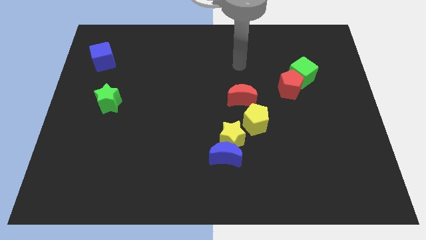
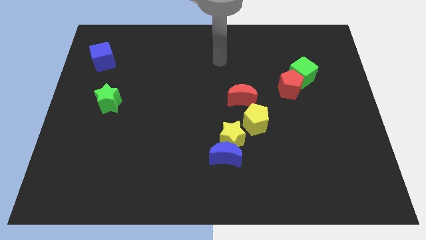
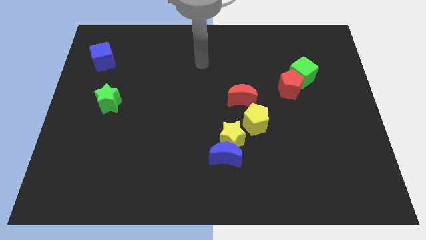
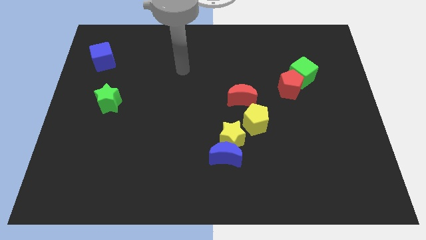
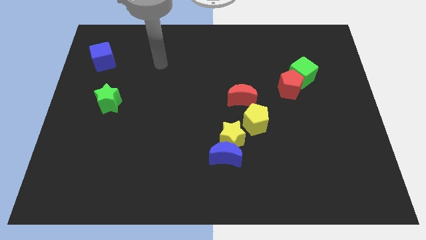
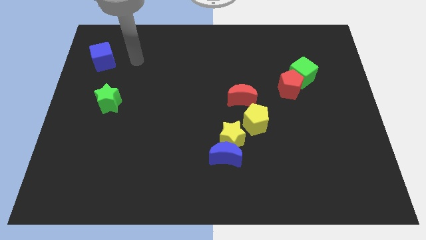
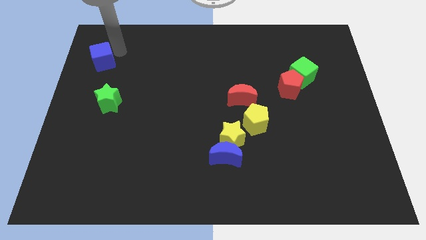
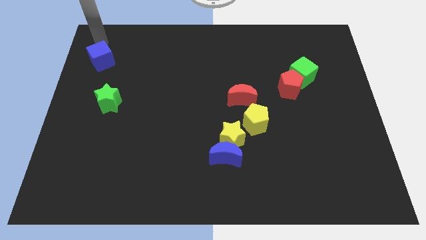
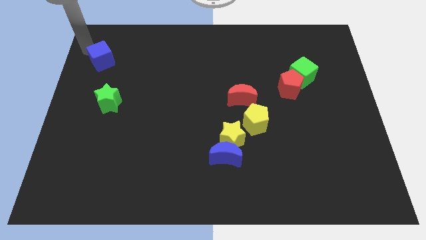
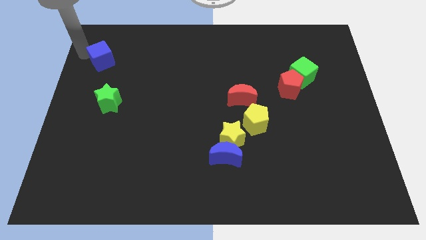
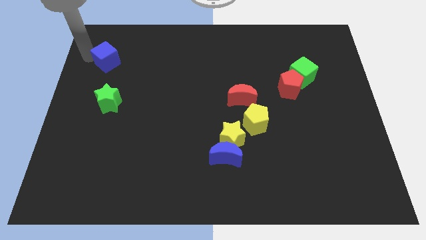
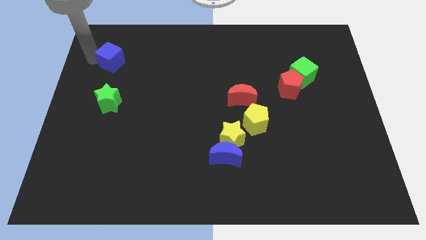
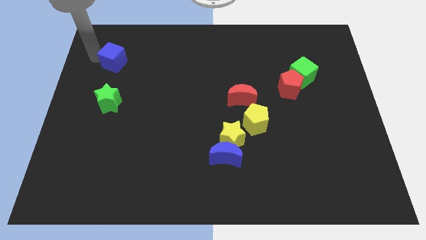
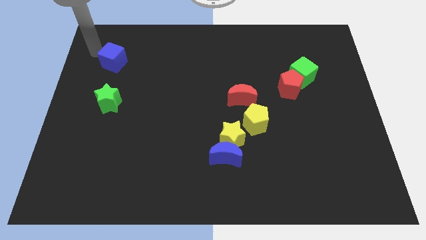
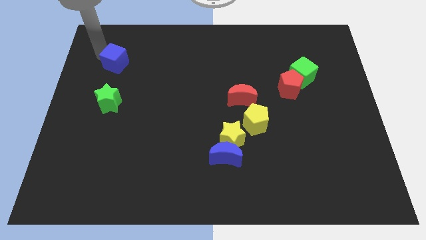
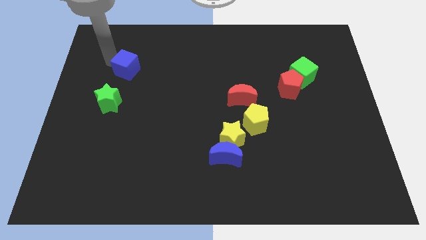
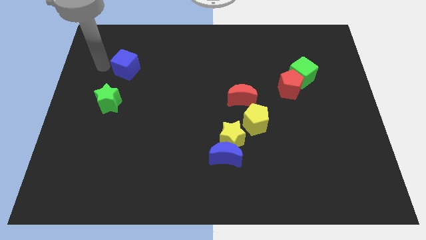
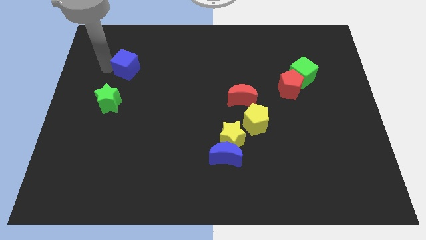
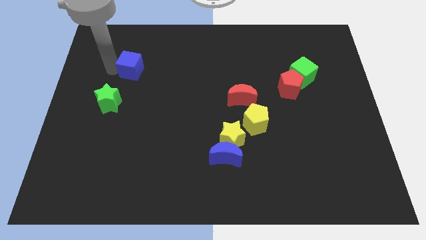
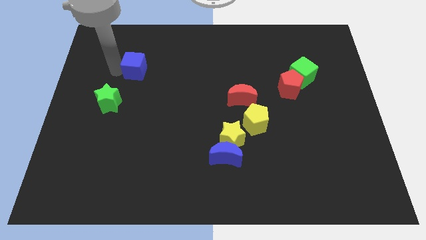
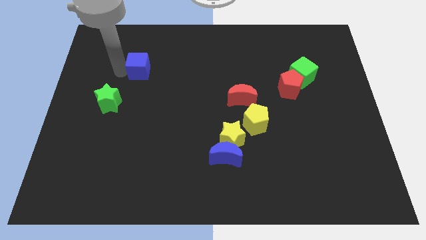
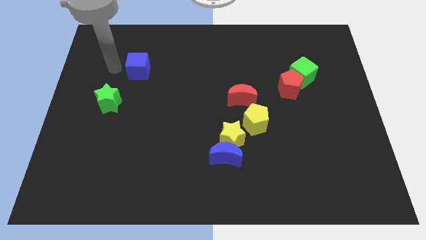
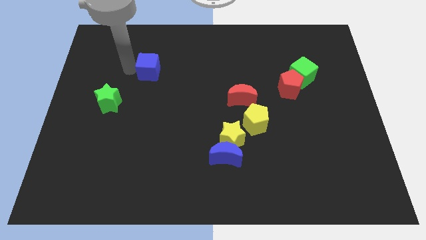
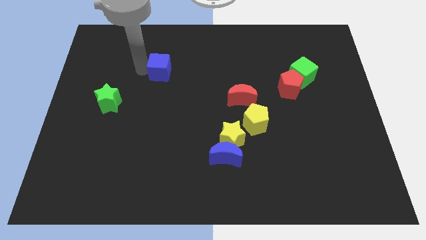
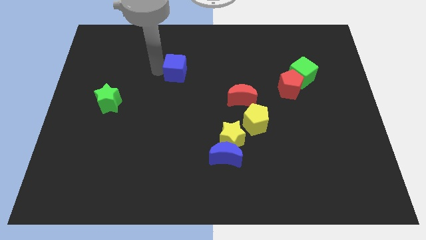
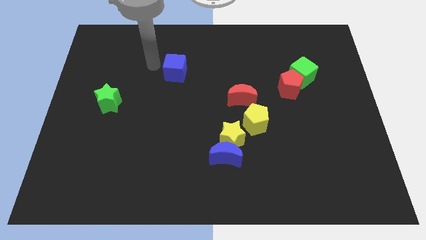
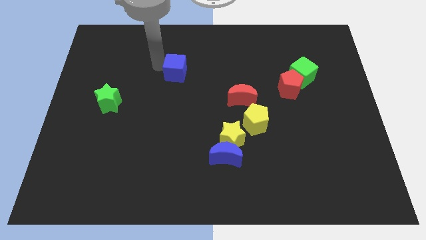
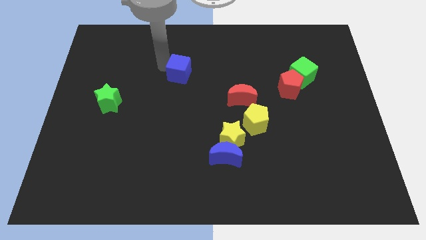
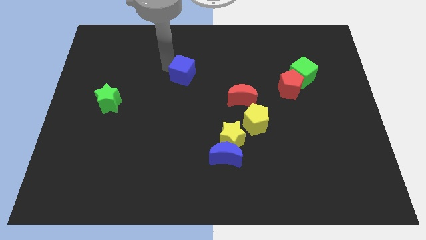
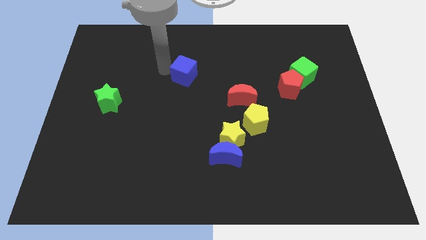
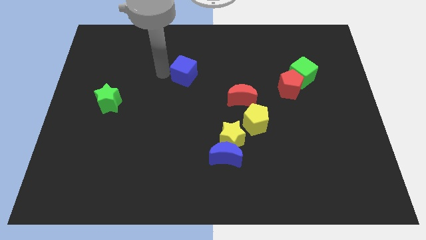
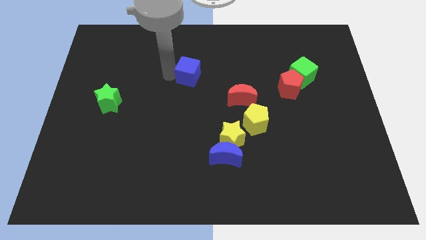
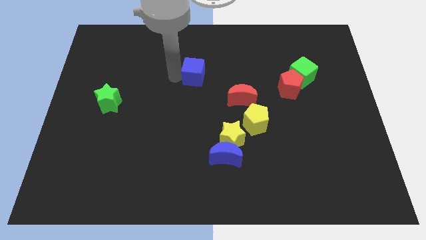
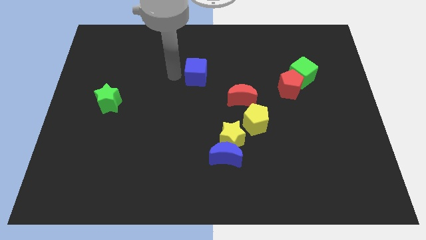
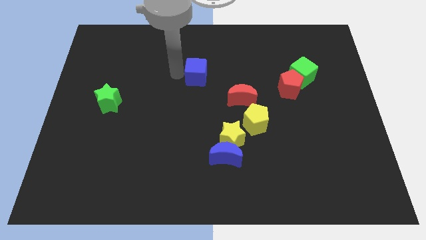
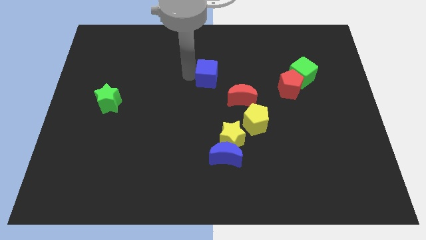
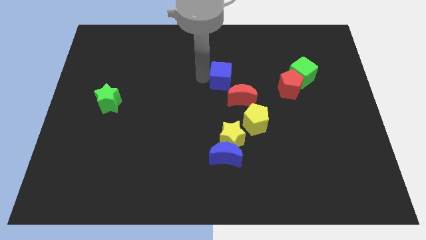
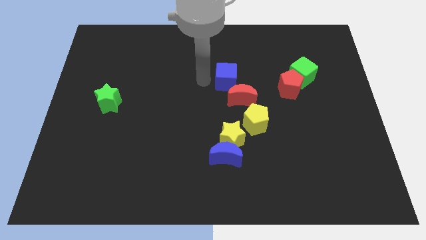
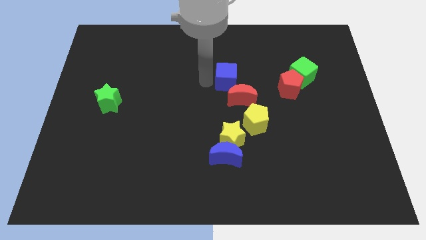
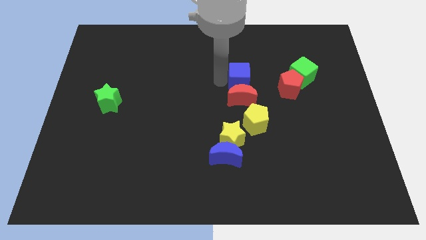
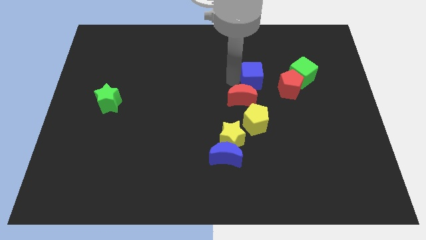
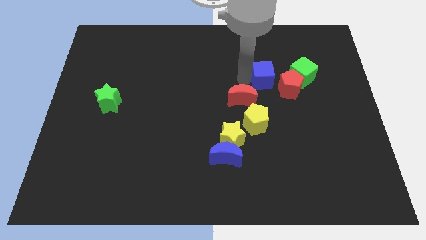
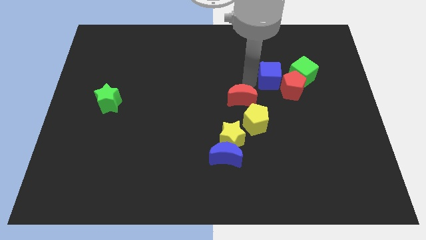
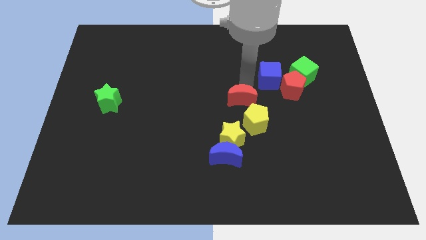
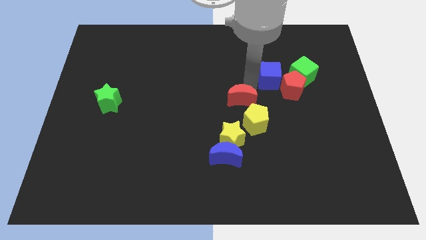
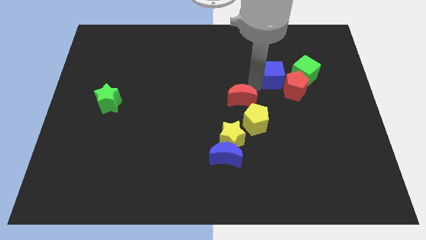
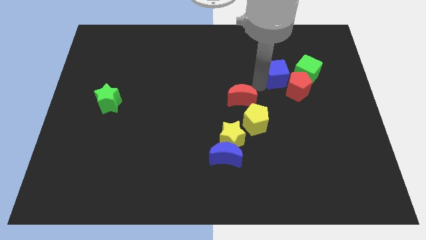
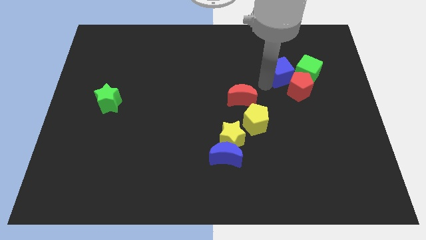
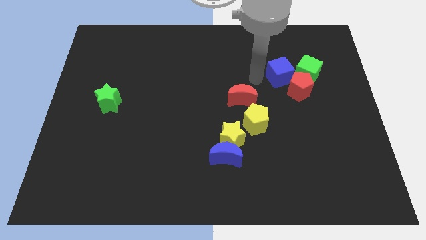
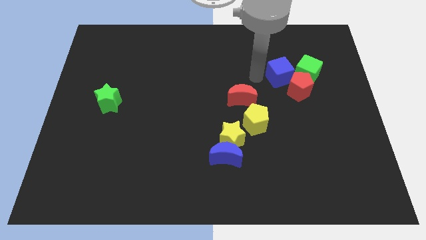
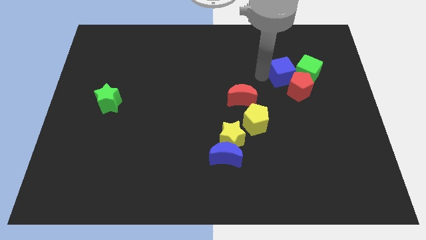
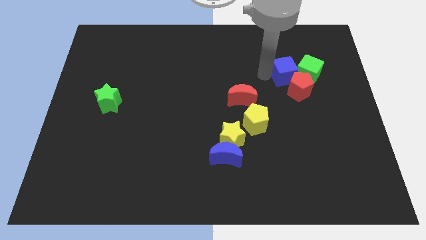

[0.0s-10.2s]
push the blue cube next to the green cube

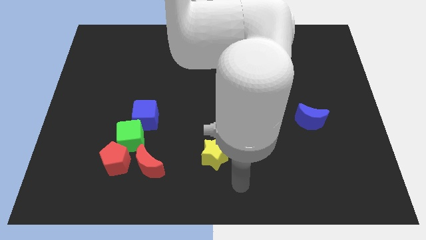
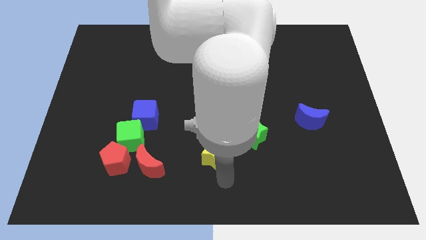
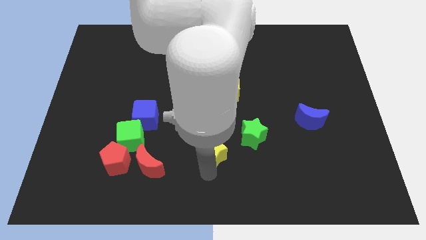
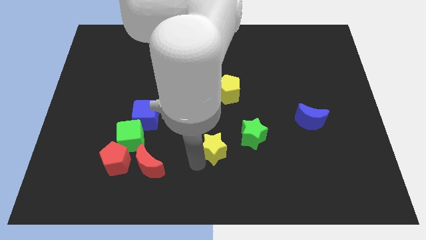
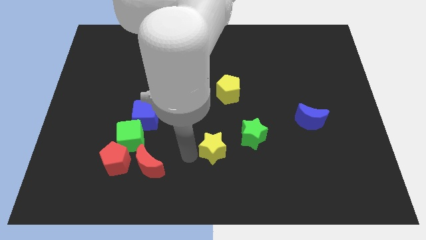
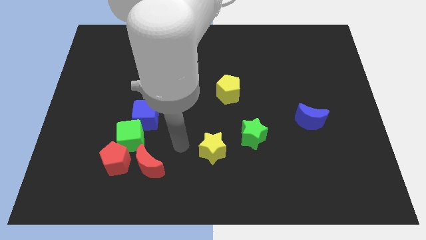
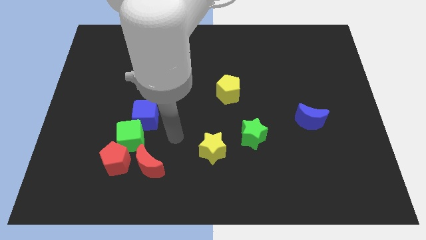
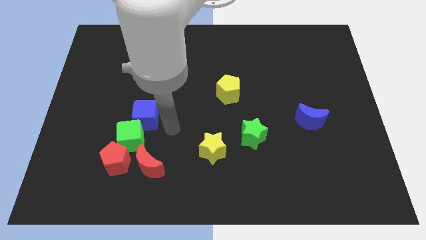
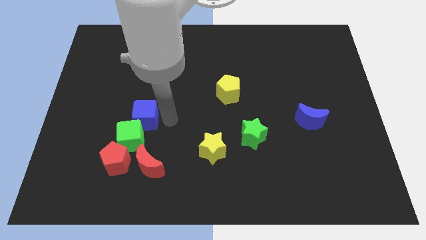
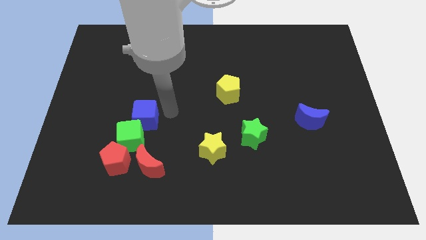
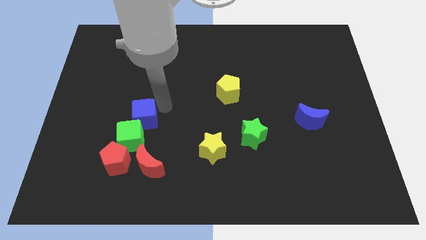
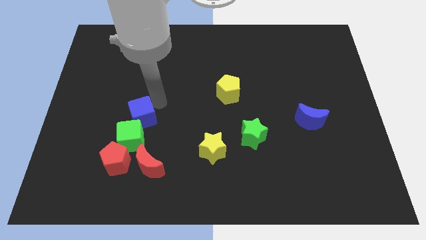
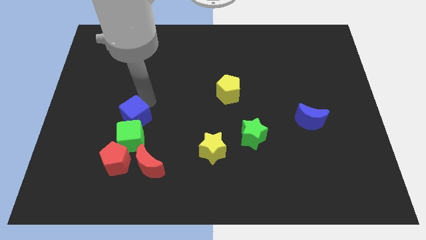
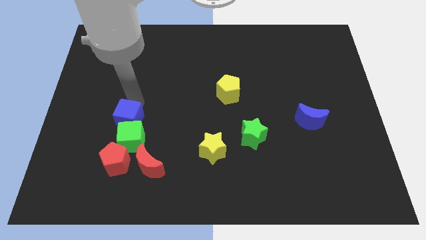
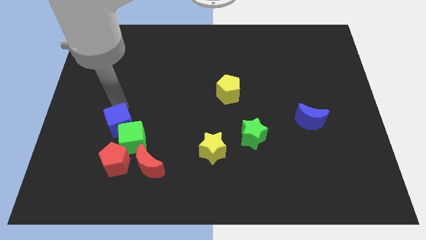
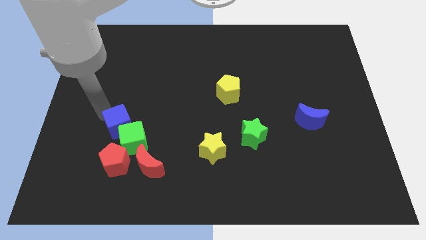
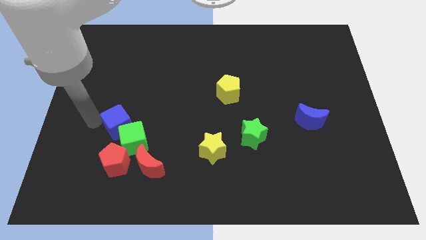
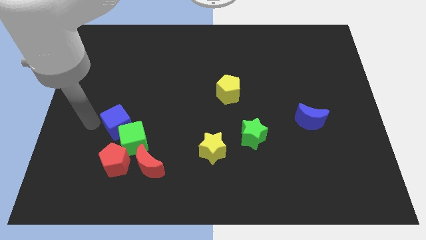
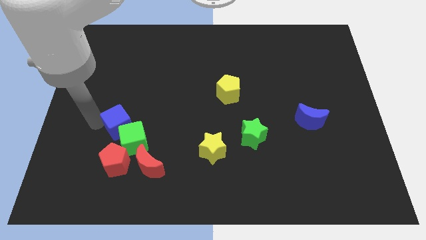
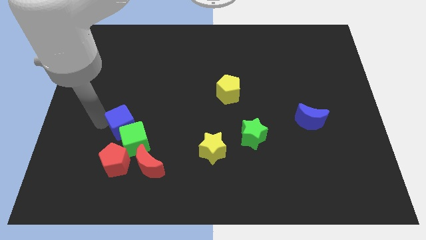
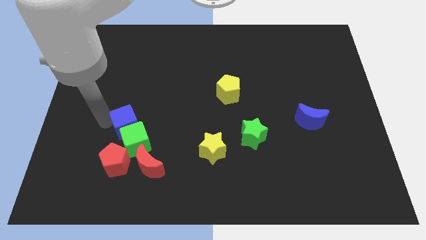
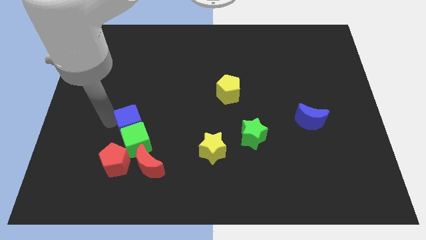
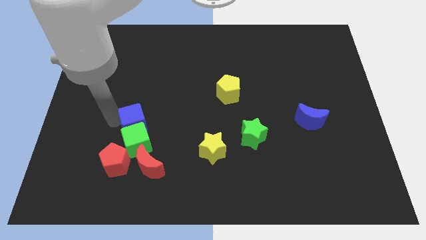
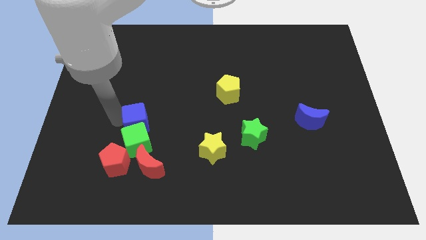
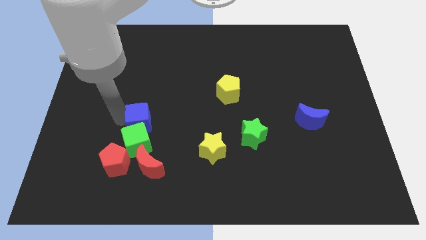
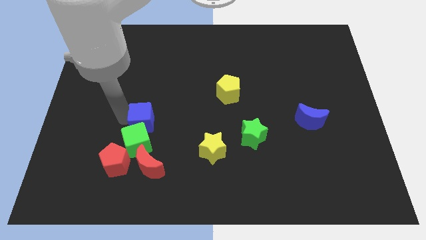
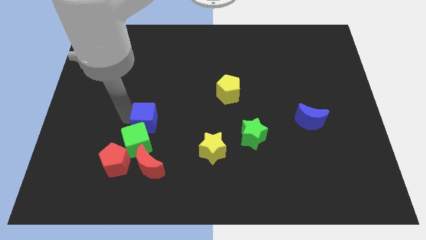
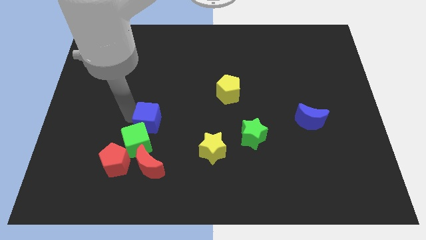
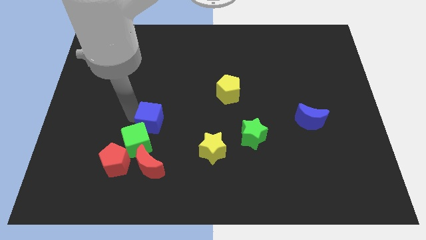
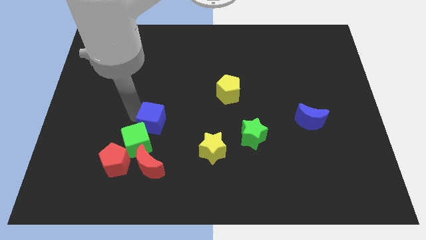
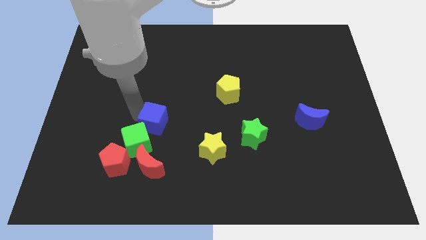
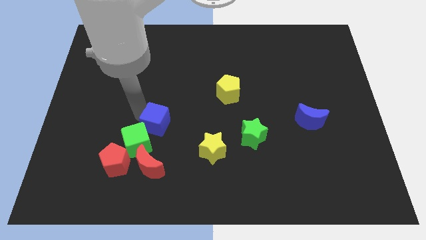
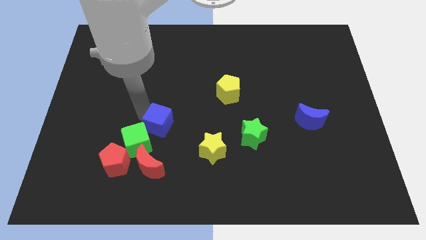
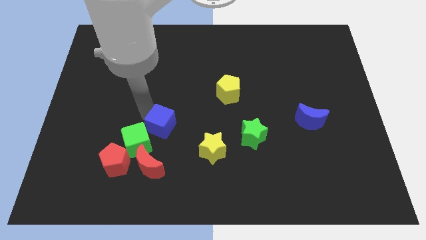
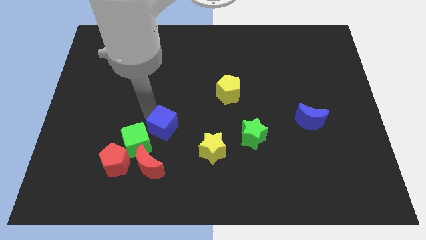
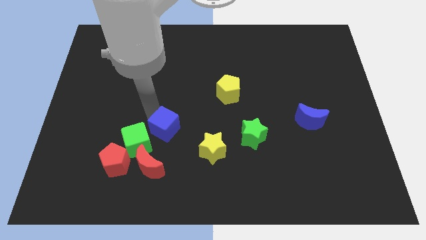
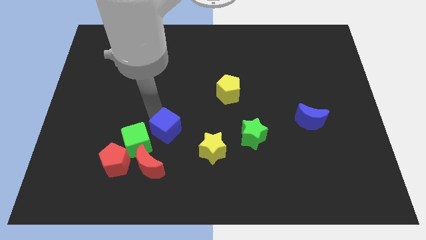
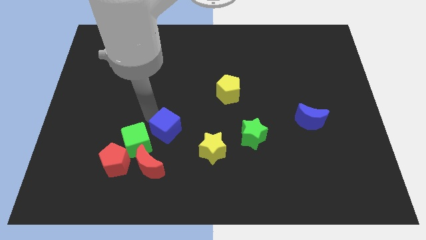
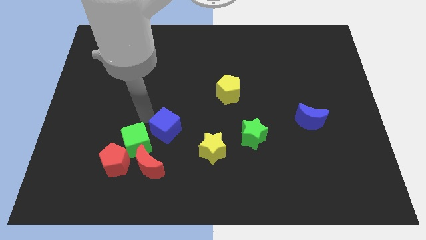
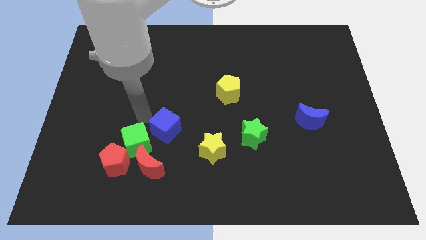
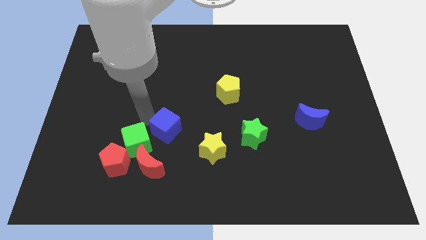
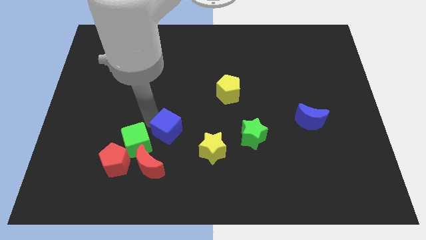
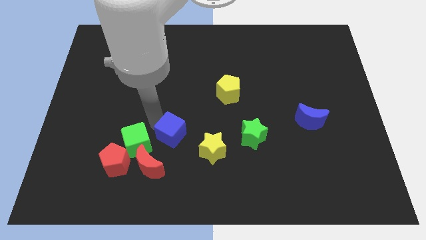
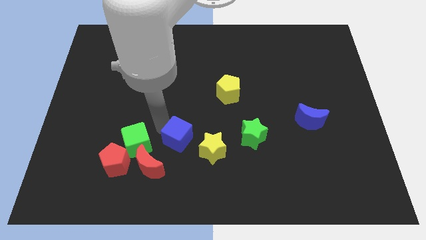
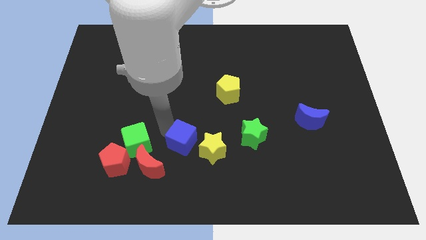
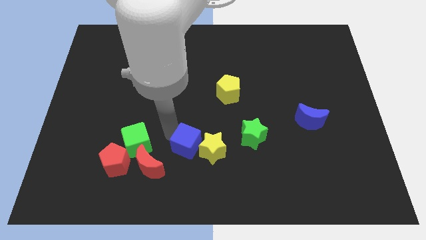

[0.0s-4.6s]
put the blue cube next to the yellow star
